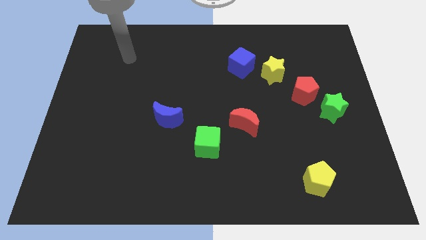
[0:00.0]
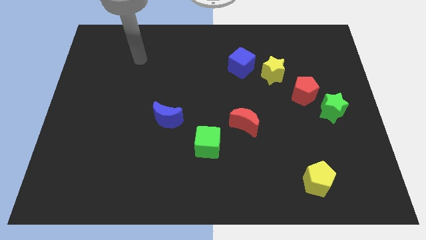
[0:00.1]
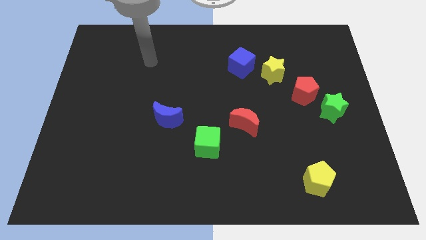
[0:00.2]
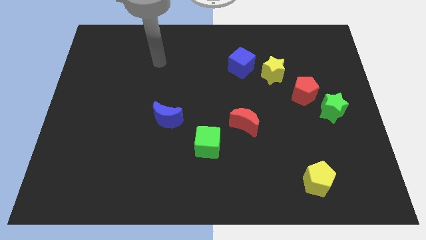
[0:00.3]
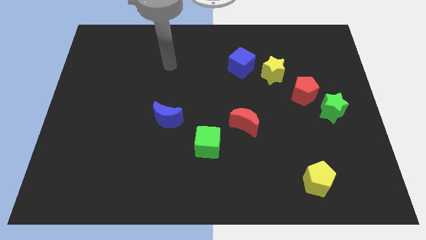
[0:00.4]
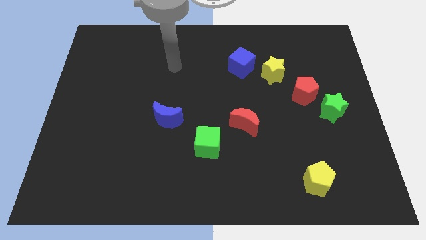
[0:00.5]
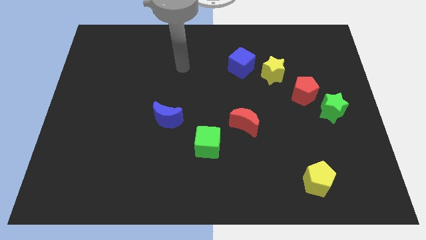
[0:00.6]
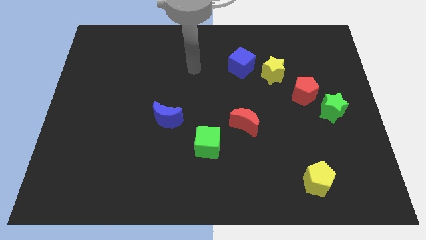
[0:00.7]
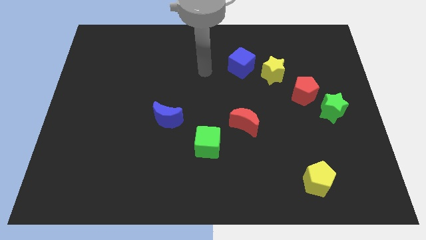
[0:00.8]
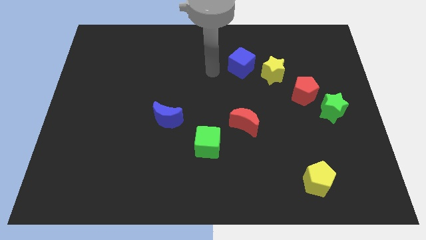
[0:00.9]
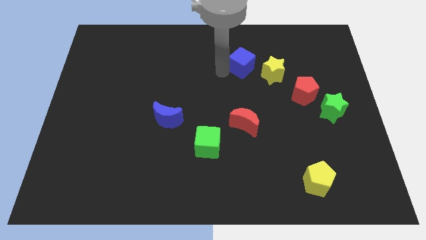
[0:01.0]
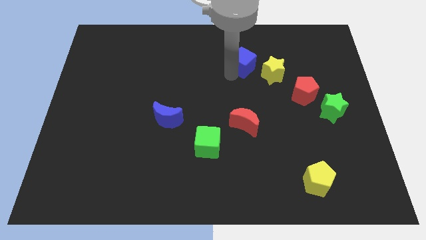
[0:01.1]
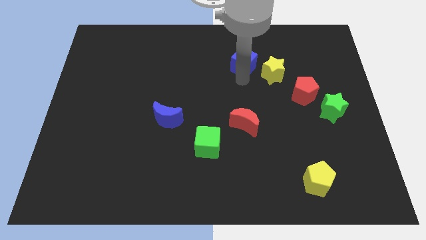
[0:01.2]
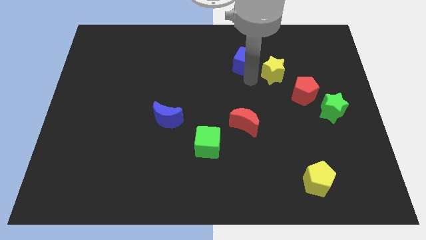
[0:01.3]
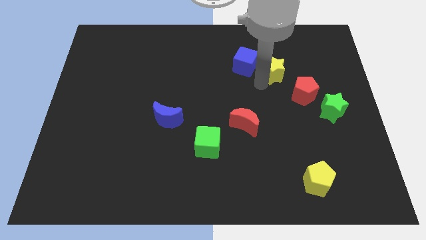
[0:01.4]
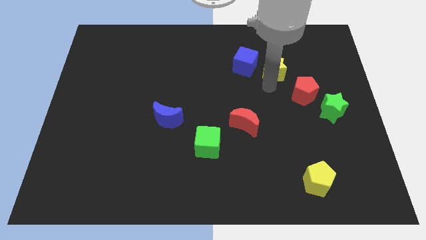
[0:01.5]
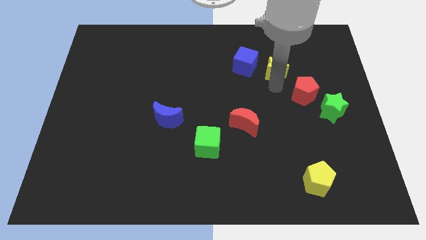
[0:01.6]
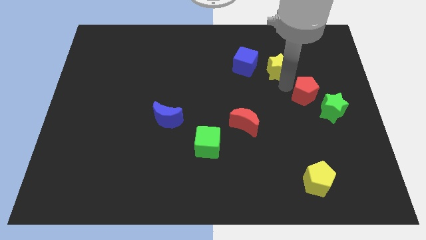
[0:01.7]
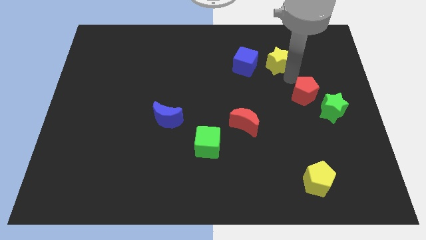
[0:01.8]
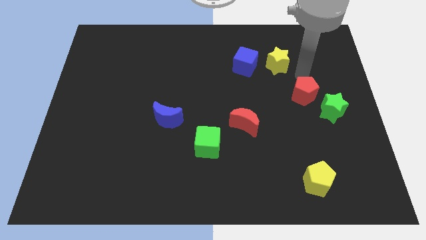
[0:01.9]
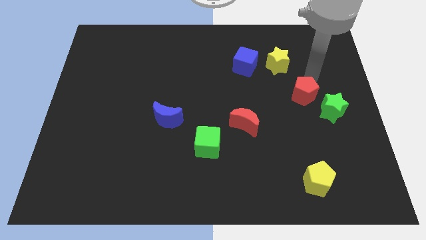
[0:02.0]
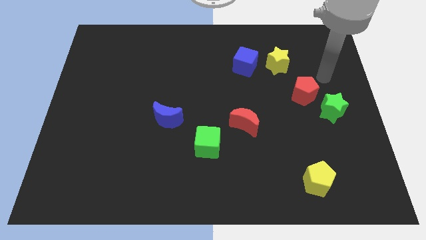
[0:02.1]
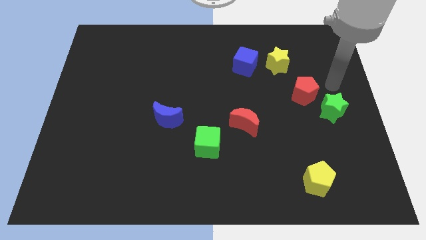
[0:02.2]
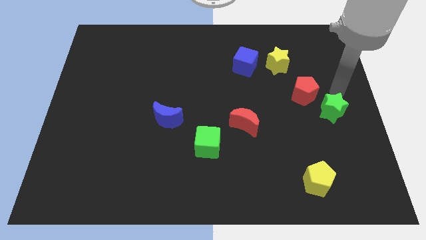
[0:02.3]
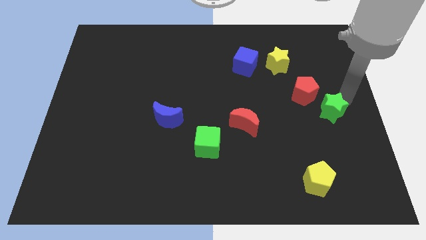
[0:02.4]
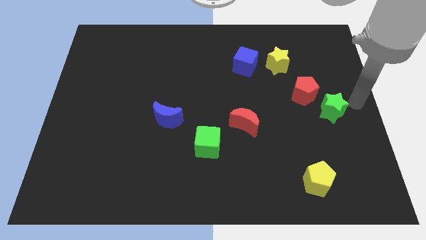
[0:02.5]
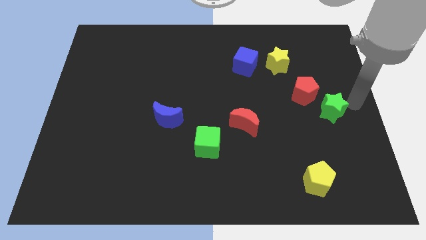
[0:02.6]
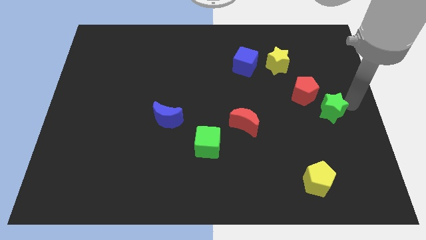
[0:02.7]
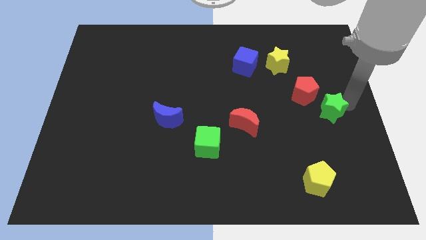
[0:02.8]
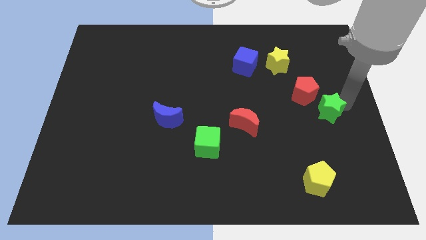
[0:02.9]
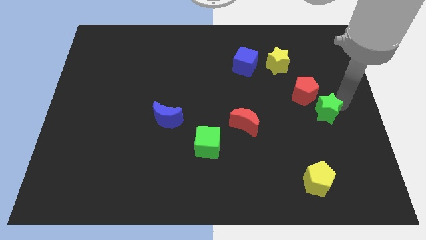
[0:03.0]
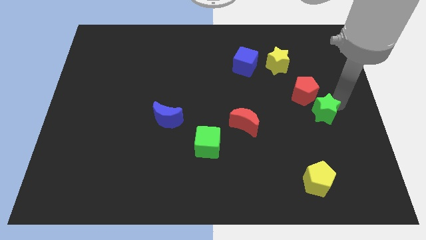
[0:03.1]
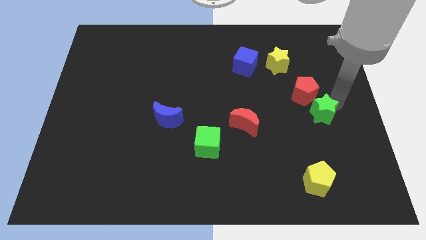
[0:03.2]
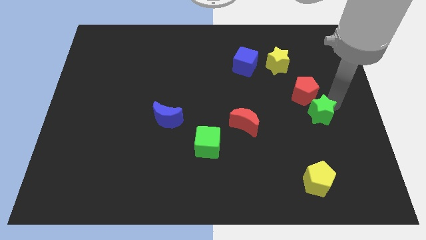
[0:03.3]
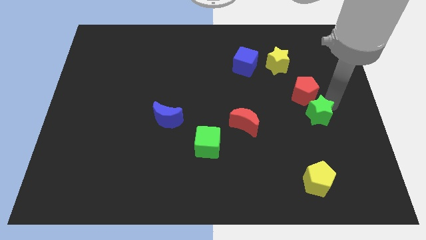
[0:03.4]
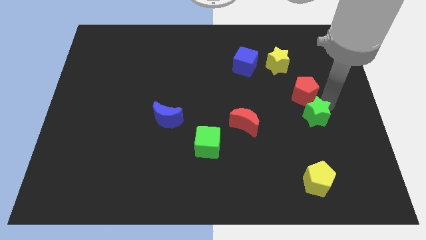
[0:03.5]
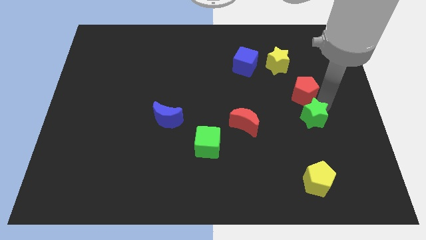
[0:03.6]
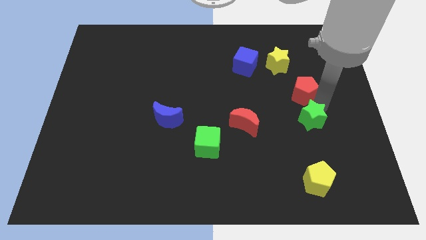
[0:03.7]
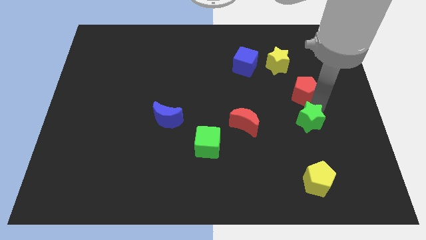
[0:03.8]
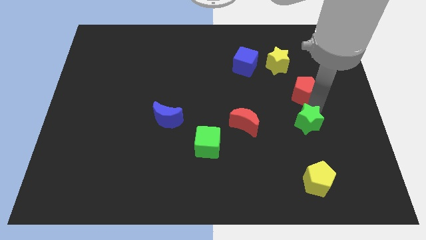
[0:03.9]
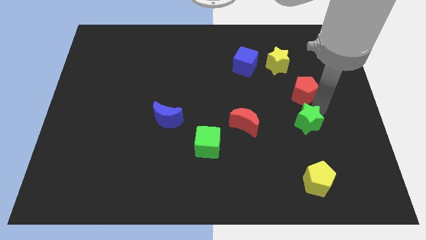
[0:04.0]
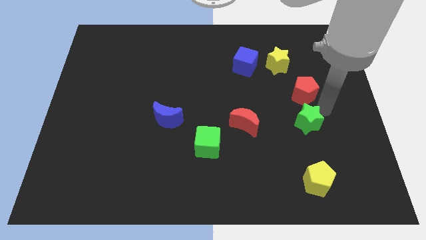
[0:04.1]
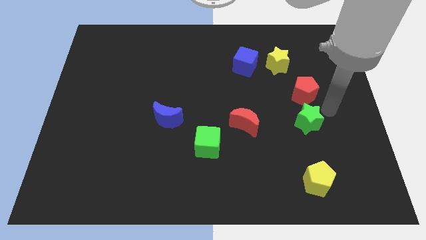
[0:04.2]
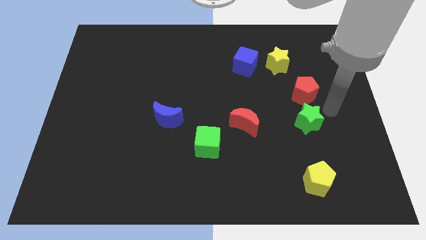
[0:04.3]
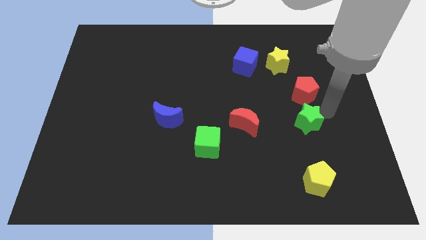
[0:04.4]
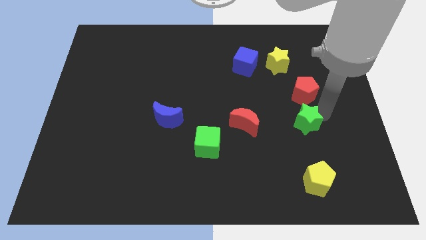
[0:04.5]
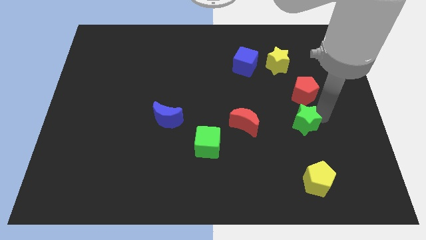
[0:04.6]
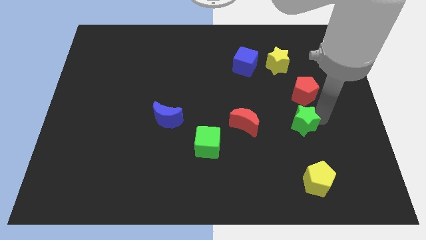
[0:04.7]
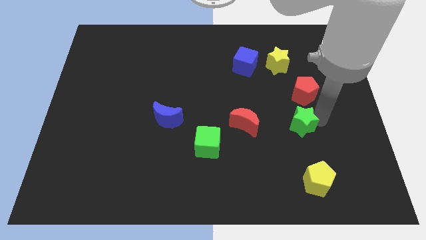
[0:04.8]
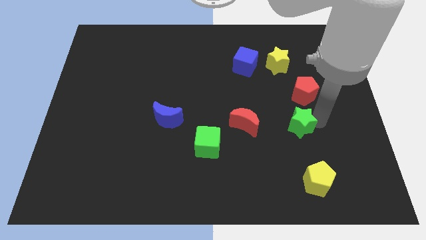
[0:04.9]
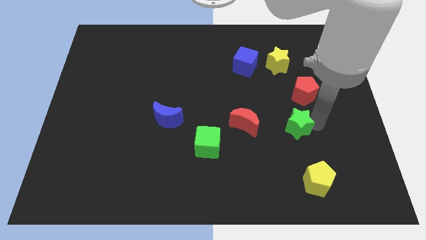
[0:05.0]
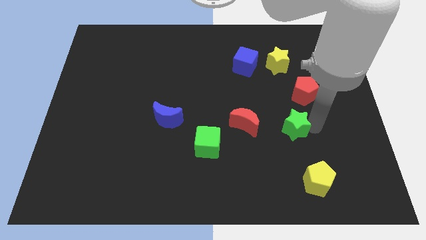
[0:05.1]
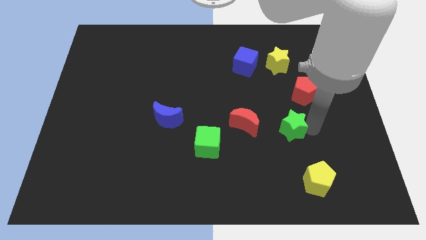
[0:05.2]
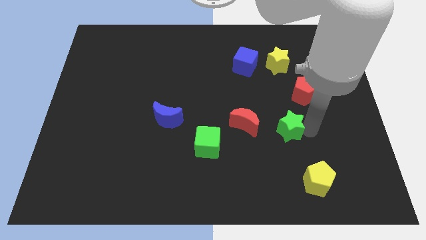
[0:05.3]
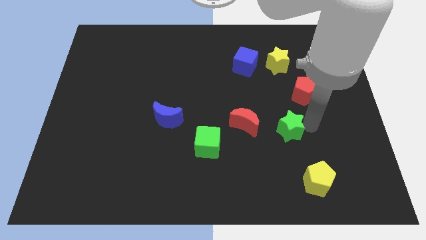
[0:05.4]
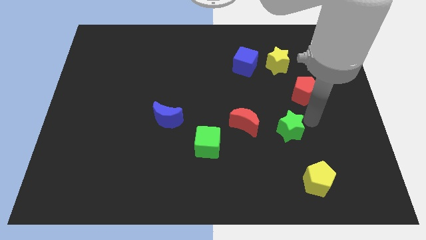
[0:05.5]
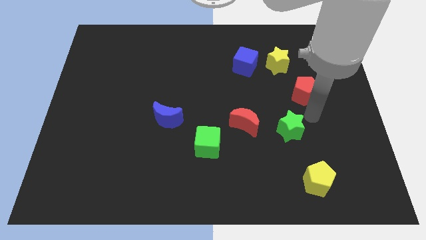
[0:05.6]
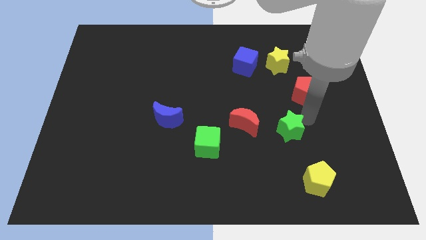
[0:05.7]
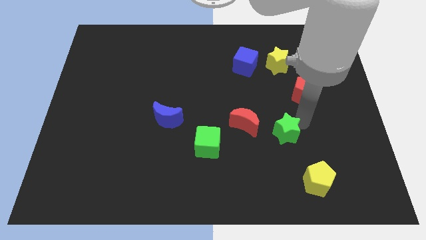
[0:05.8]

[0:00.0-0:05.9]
put the green star to the bottom right of the red moon

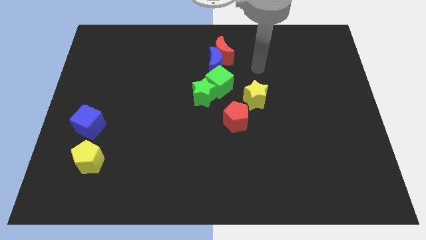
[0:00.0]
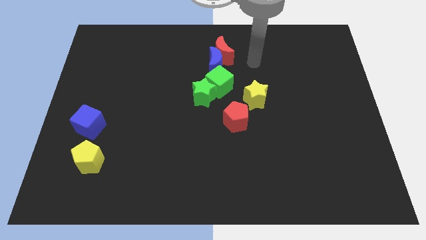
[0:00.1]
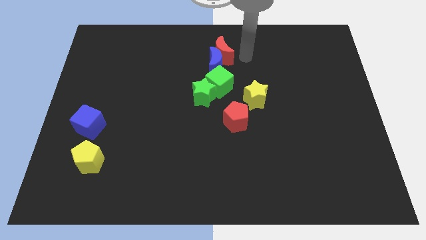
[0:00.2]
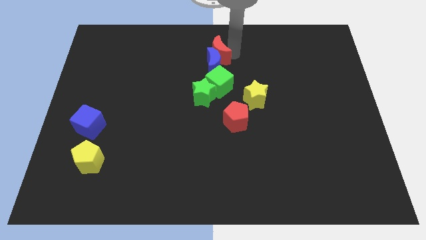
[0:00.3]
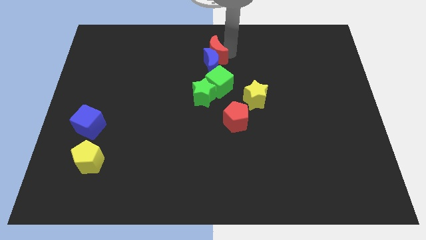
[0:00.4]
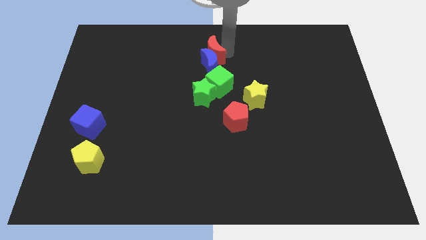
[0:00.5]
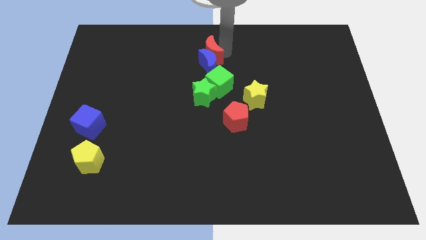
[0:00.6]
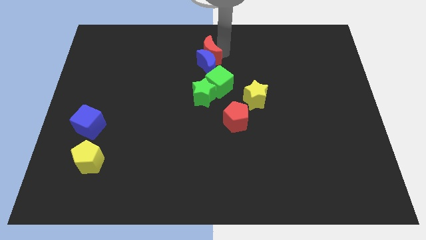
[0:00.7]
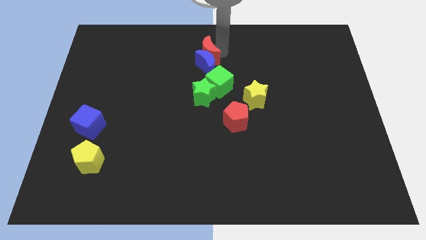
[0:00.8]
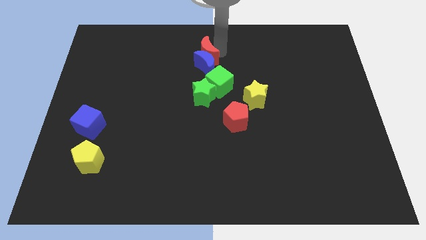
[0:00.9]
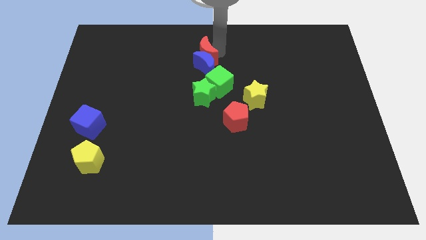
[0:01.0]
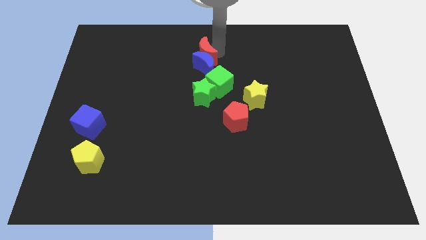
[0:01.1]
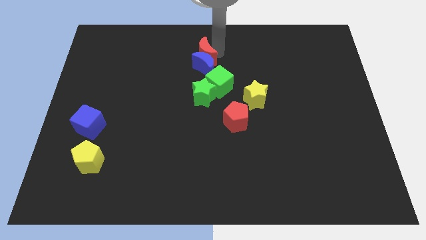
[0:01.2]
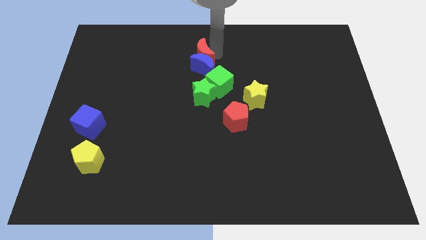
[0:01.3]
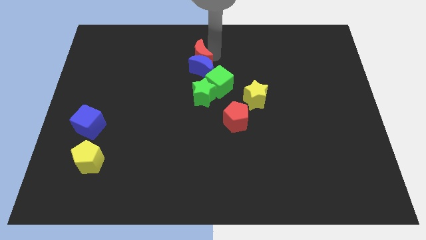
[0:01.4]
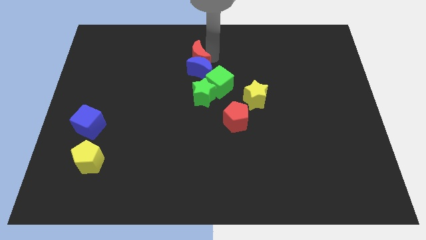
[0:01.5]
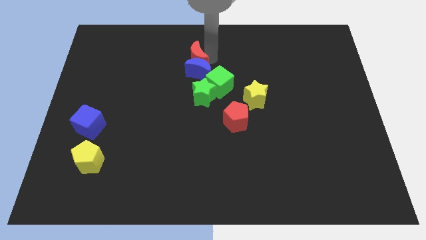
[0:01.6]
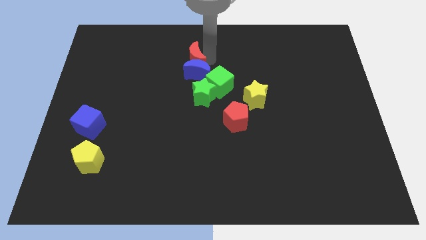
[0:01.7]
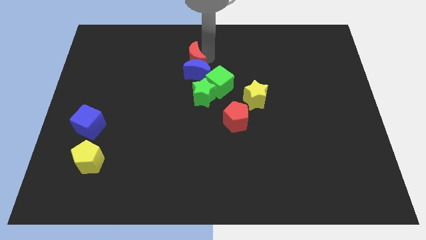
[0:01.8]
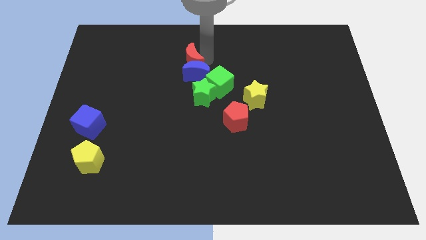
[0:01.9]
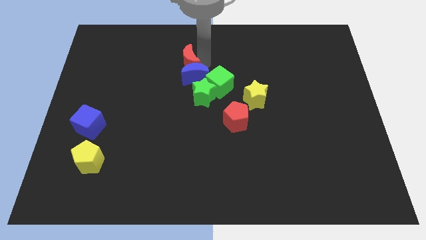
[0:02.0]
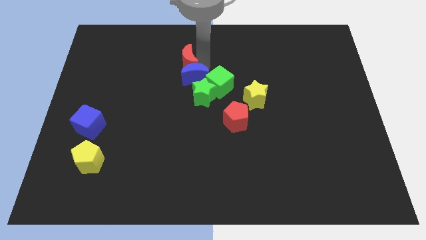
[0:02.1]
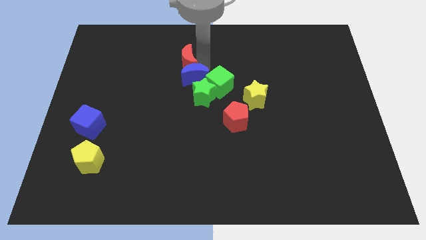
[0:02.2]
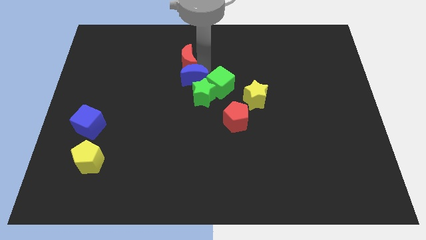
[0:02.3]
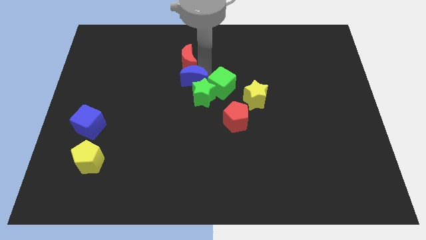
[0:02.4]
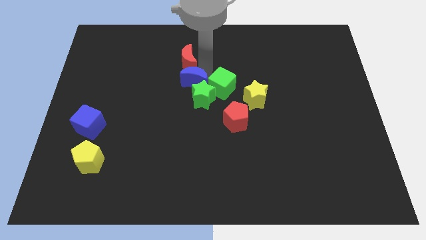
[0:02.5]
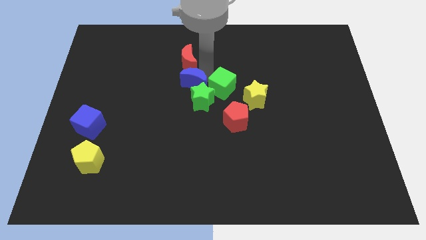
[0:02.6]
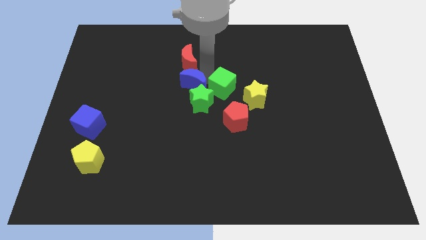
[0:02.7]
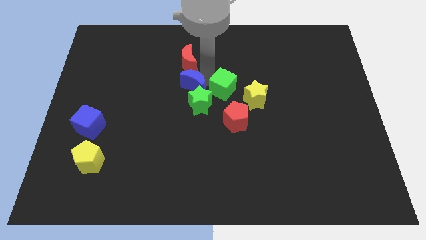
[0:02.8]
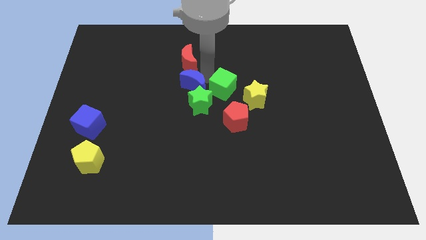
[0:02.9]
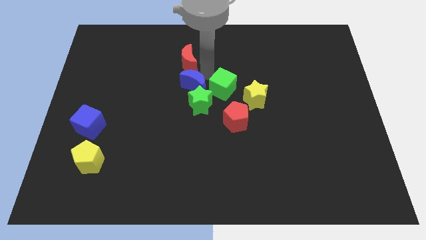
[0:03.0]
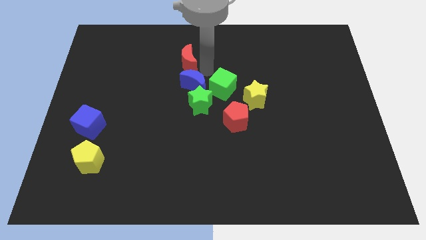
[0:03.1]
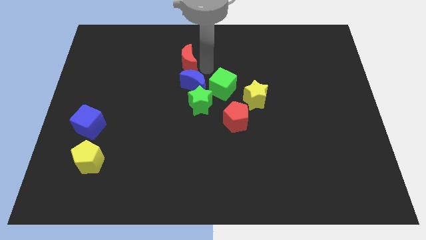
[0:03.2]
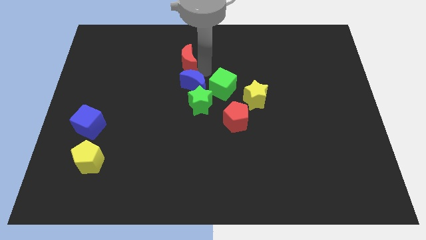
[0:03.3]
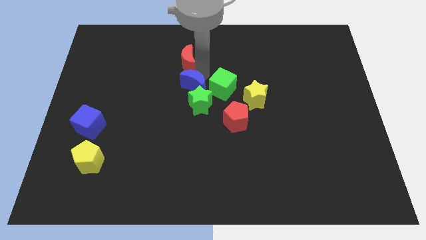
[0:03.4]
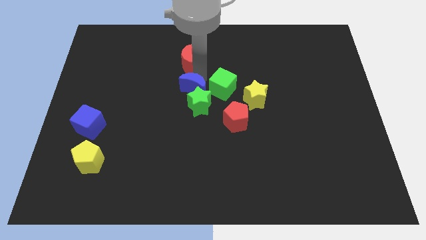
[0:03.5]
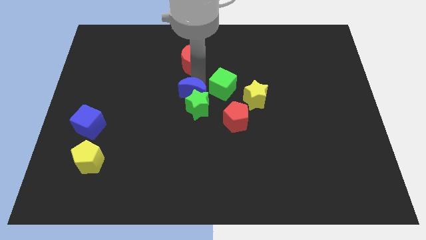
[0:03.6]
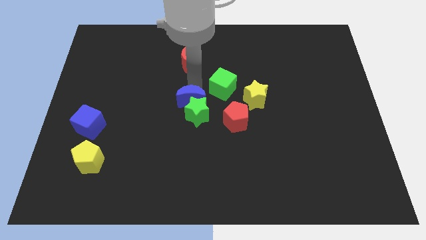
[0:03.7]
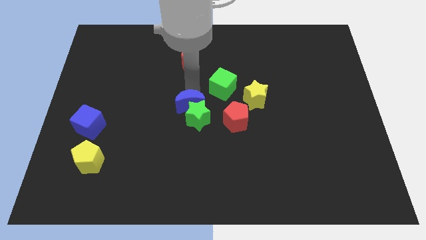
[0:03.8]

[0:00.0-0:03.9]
slide the blue moon to the left side of the red pentagon
